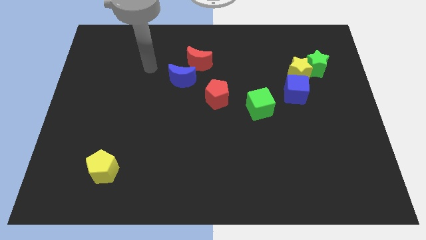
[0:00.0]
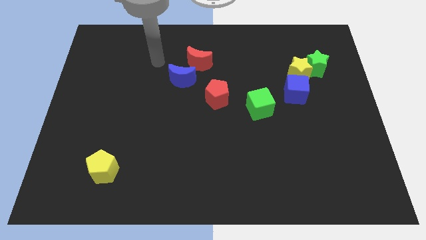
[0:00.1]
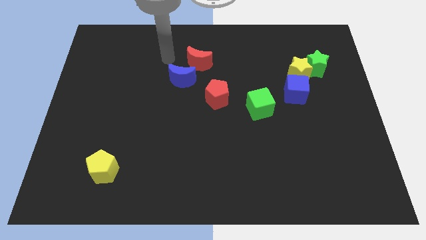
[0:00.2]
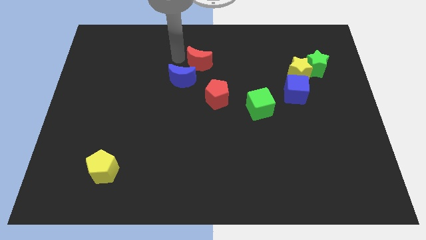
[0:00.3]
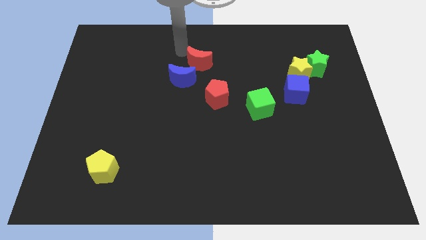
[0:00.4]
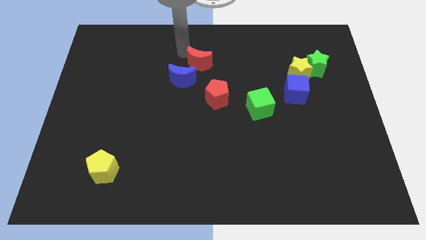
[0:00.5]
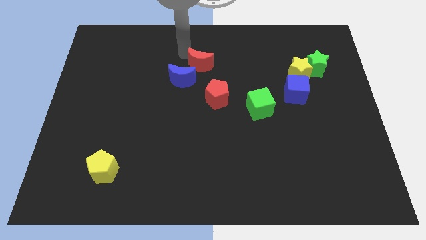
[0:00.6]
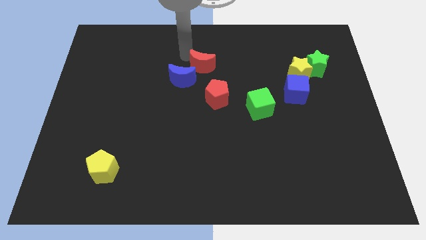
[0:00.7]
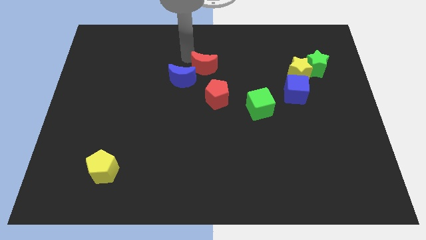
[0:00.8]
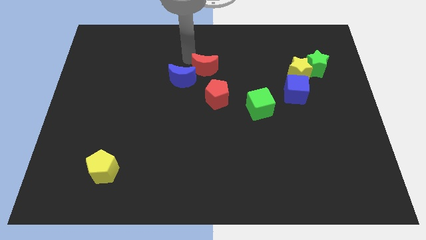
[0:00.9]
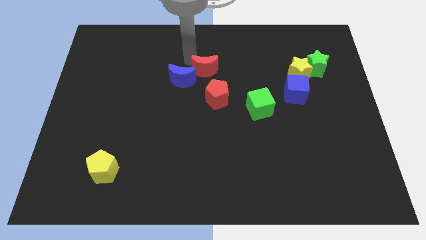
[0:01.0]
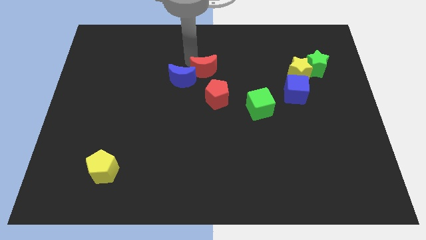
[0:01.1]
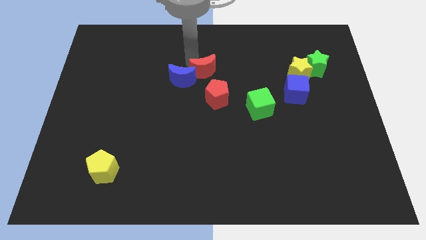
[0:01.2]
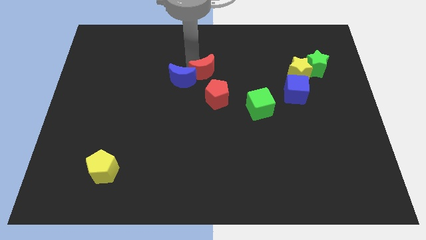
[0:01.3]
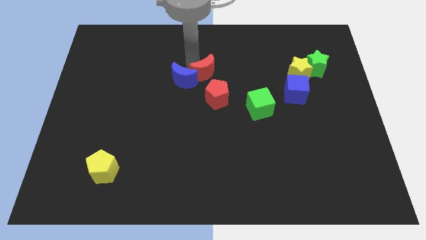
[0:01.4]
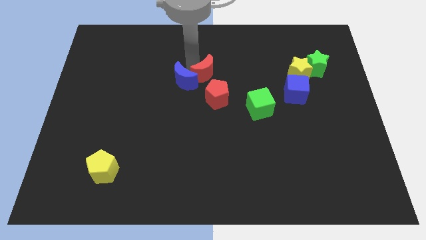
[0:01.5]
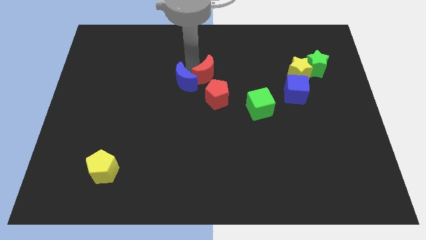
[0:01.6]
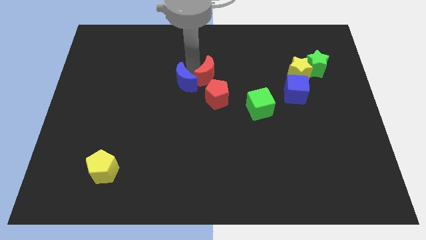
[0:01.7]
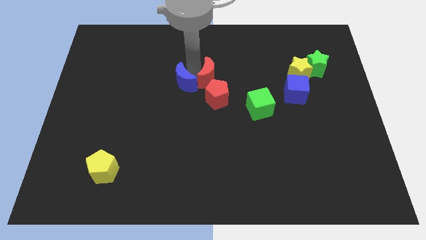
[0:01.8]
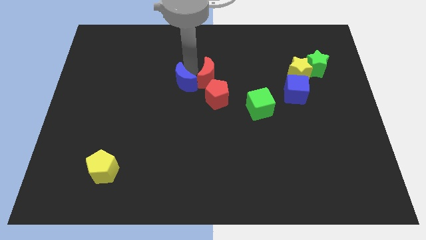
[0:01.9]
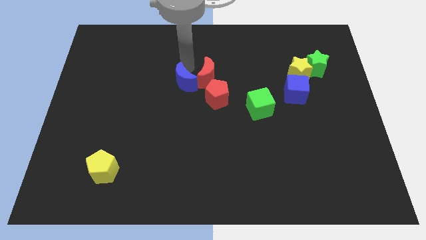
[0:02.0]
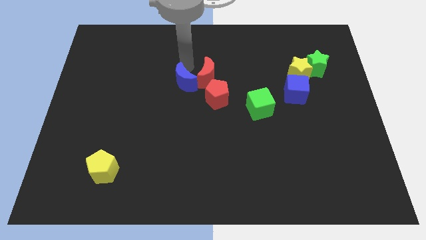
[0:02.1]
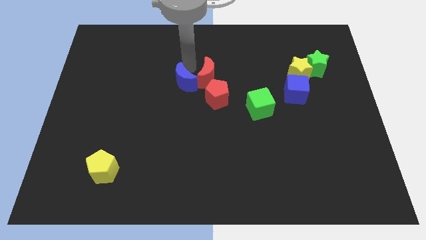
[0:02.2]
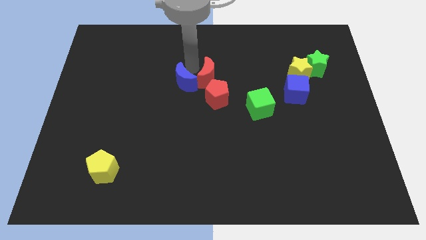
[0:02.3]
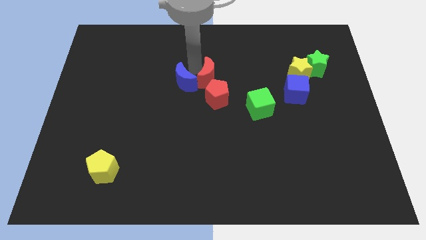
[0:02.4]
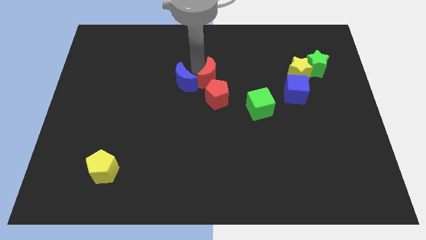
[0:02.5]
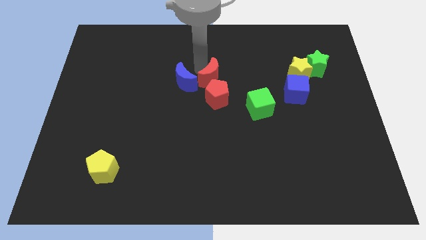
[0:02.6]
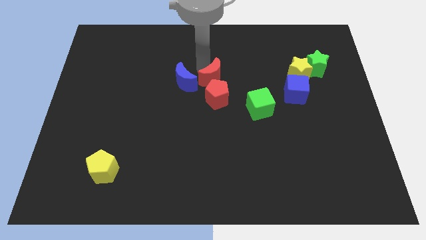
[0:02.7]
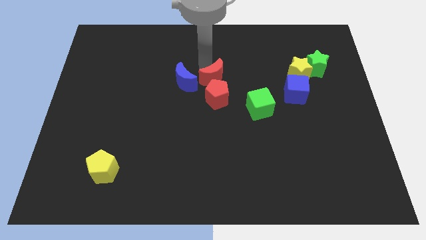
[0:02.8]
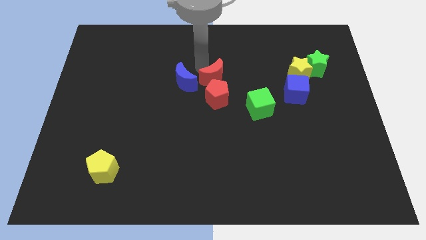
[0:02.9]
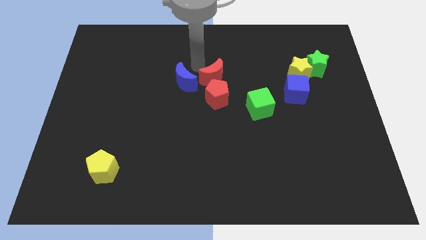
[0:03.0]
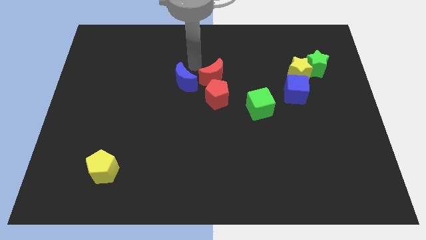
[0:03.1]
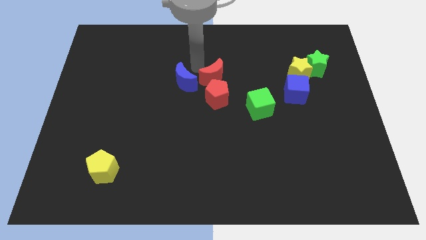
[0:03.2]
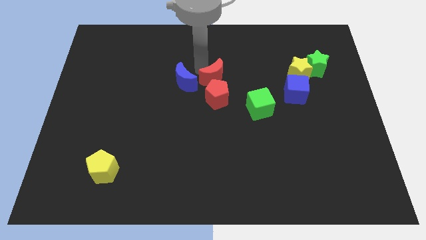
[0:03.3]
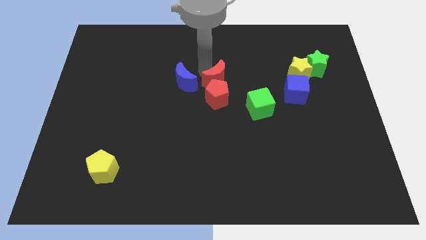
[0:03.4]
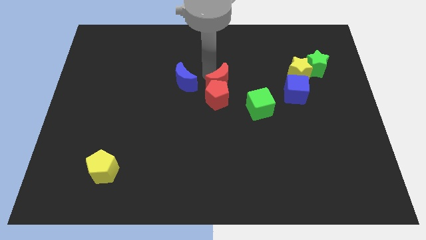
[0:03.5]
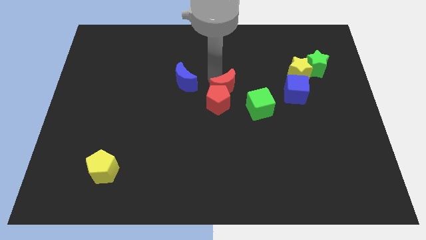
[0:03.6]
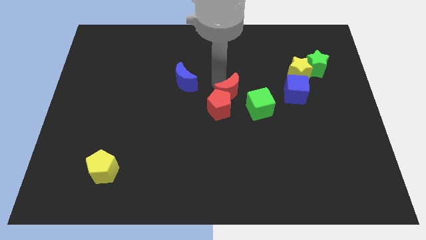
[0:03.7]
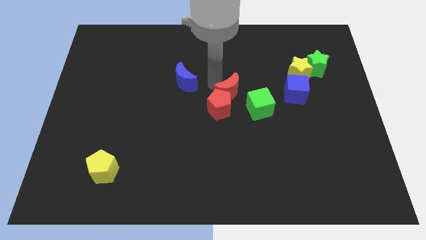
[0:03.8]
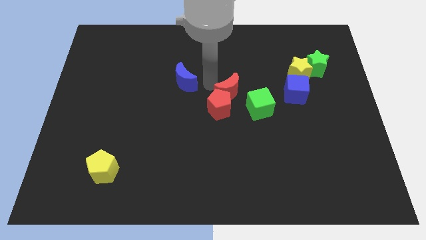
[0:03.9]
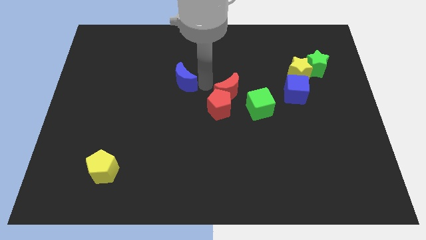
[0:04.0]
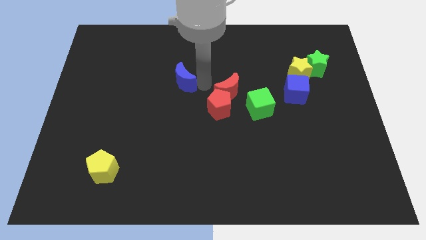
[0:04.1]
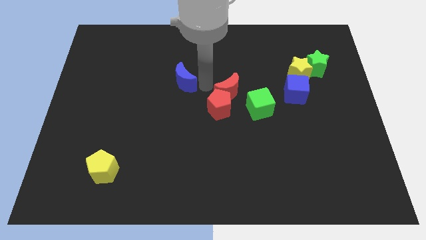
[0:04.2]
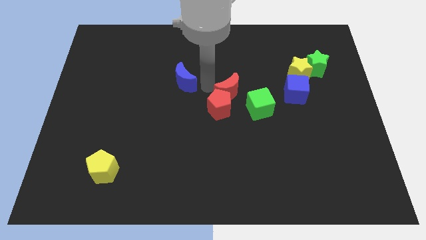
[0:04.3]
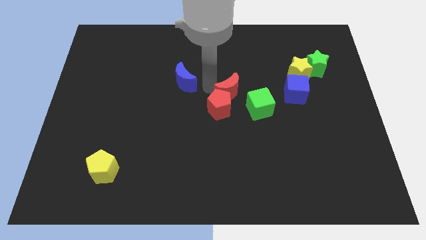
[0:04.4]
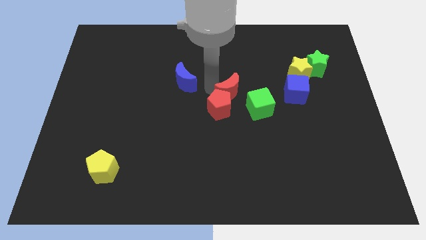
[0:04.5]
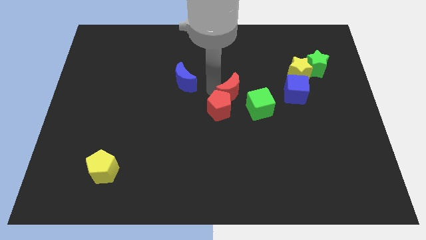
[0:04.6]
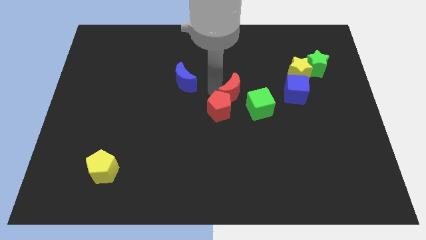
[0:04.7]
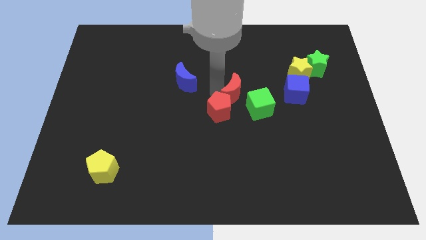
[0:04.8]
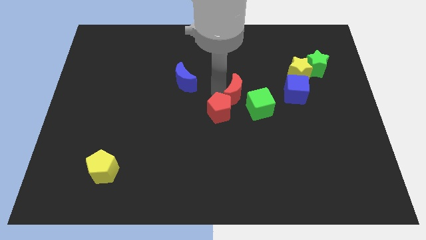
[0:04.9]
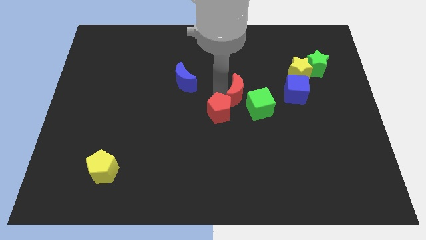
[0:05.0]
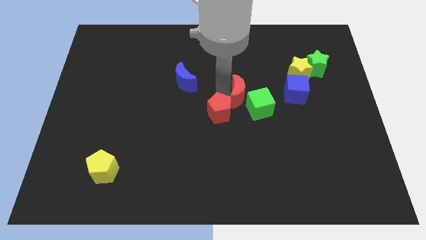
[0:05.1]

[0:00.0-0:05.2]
move the red moon to the green cube

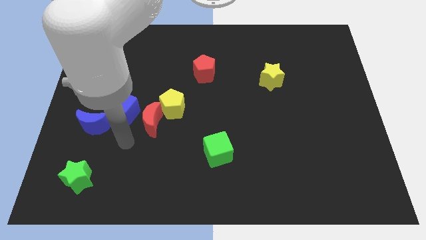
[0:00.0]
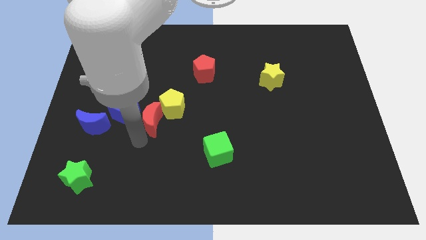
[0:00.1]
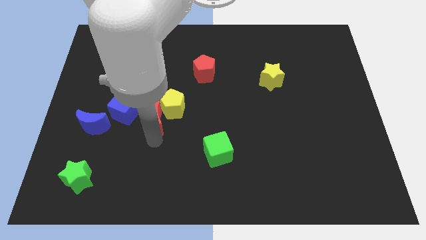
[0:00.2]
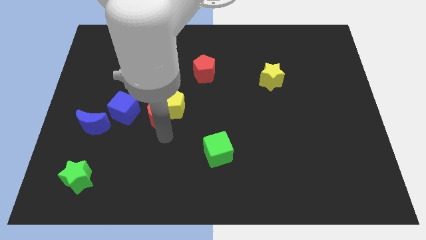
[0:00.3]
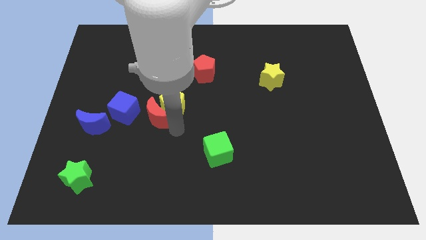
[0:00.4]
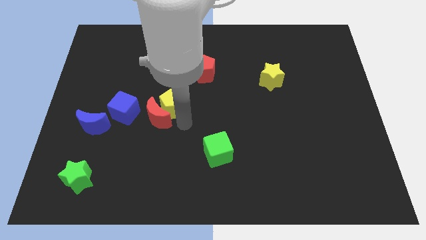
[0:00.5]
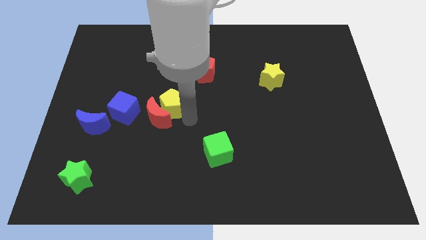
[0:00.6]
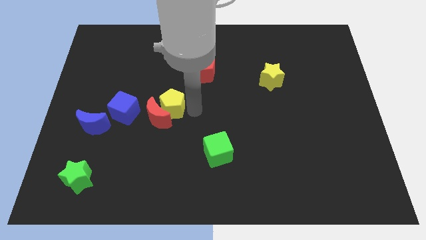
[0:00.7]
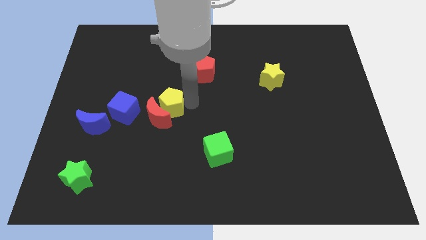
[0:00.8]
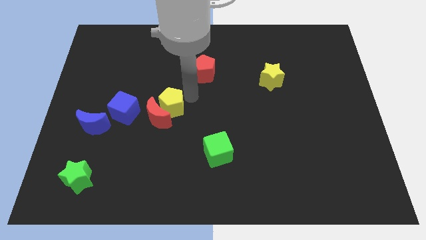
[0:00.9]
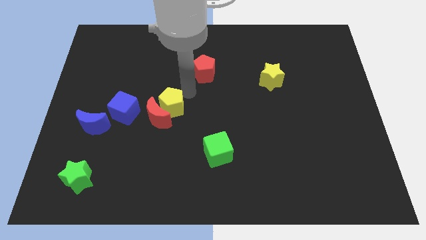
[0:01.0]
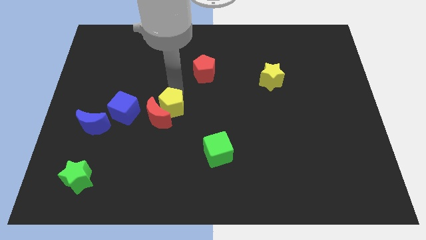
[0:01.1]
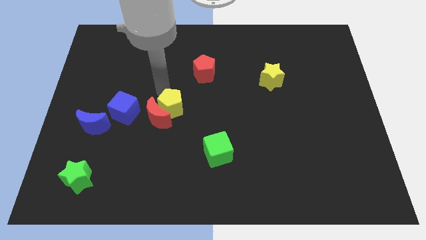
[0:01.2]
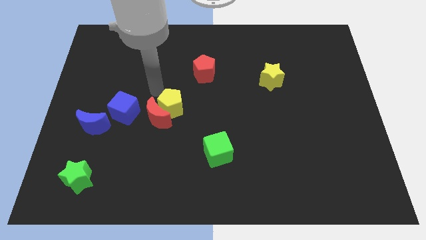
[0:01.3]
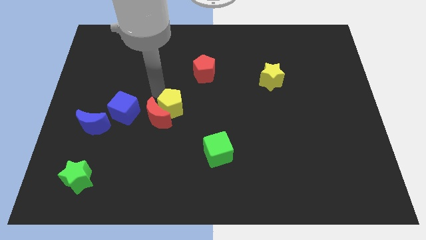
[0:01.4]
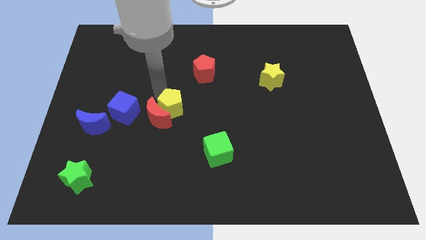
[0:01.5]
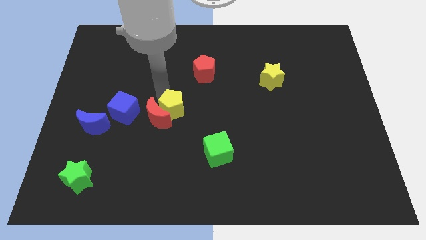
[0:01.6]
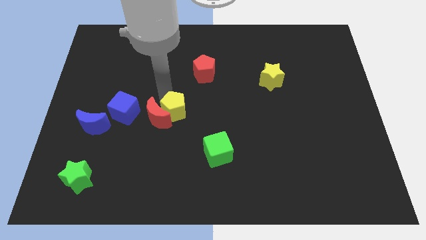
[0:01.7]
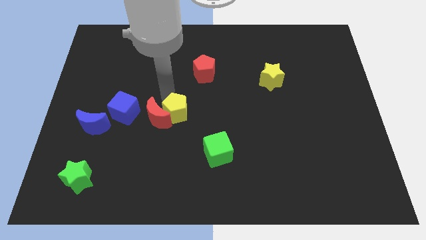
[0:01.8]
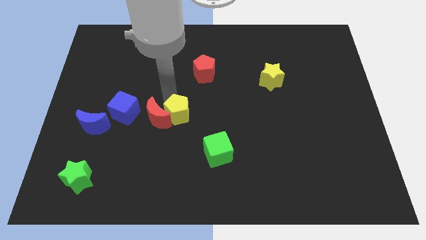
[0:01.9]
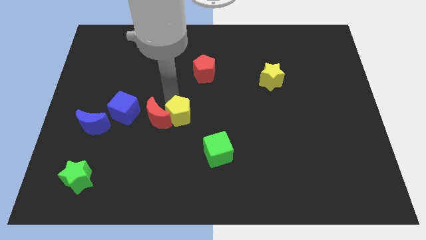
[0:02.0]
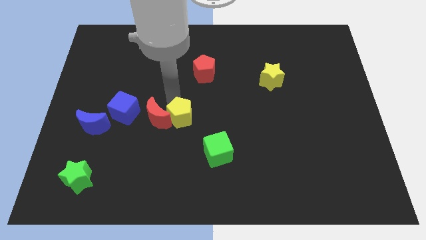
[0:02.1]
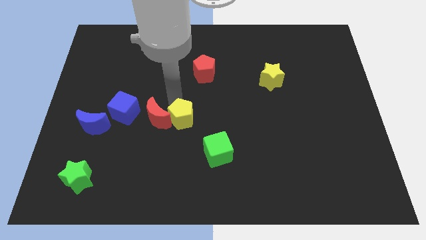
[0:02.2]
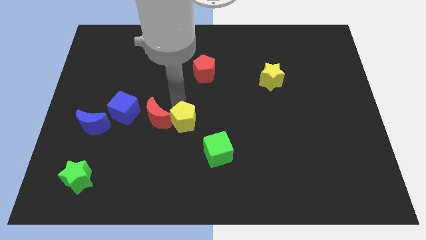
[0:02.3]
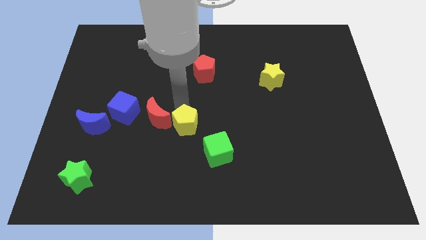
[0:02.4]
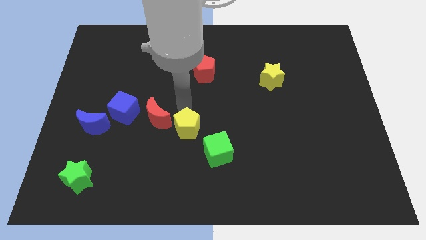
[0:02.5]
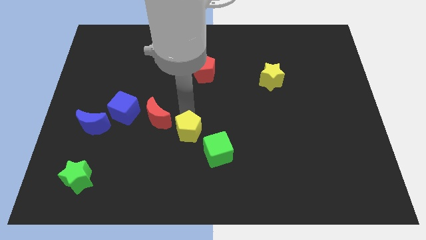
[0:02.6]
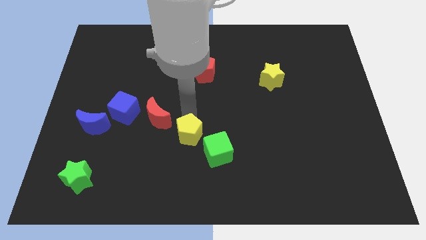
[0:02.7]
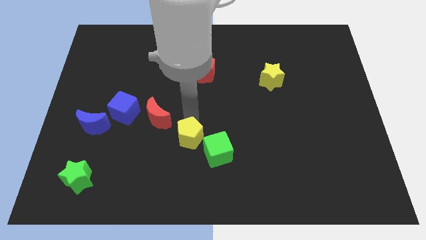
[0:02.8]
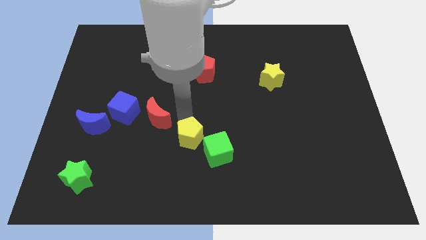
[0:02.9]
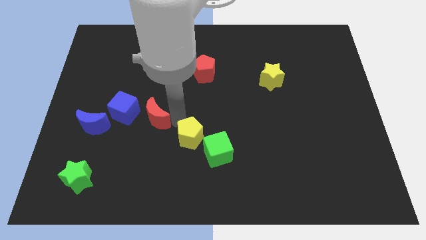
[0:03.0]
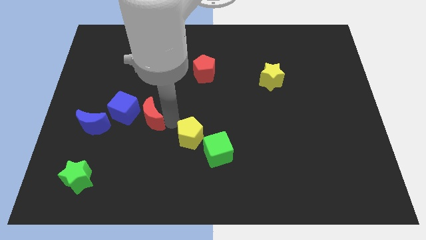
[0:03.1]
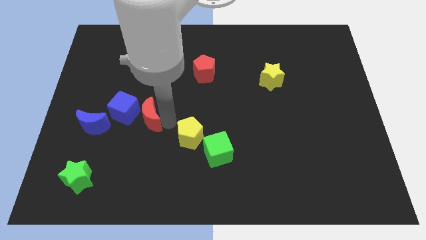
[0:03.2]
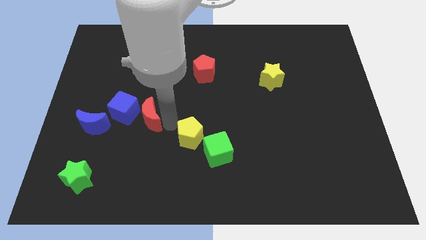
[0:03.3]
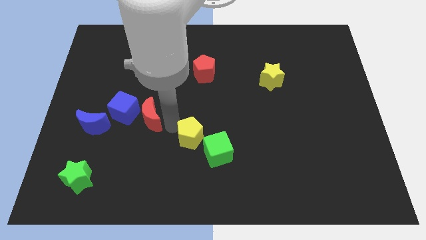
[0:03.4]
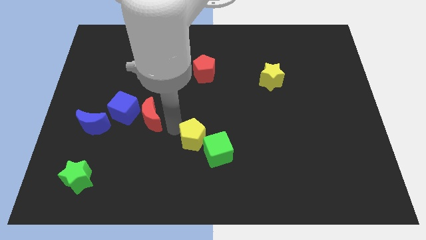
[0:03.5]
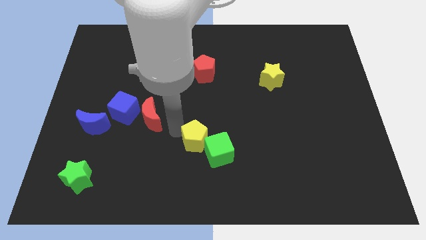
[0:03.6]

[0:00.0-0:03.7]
move the yellow pentagon towards the green cube
